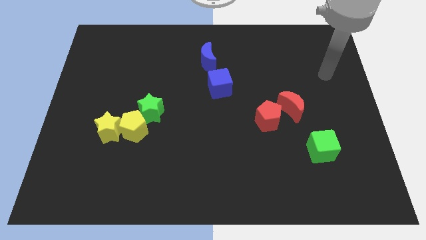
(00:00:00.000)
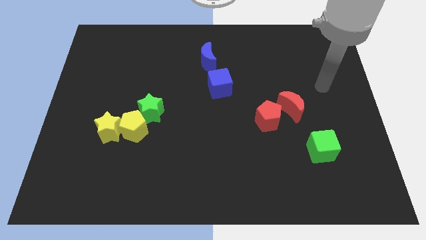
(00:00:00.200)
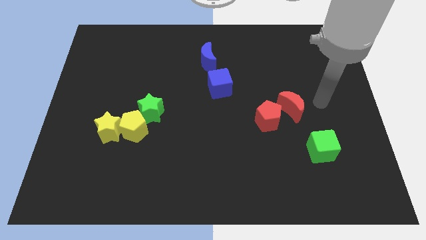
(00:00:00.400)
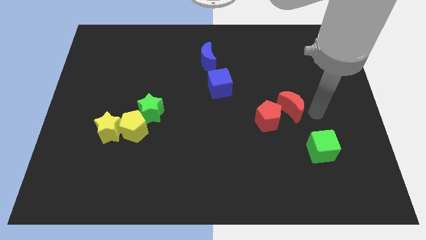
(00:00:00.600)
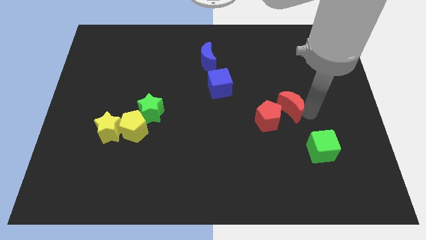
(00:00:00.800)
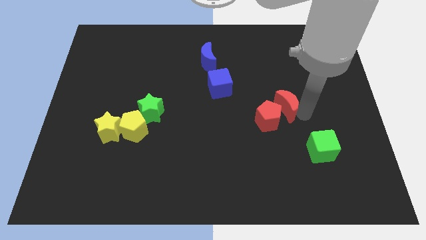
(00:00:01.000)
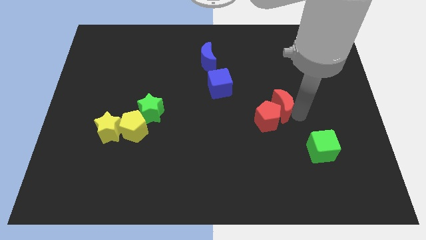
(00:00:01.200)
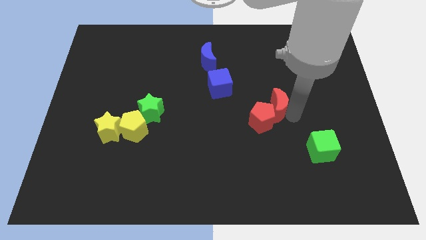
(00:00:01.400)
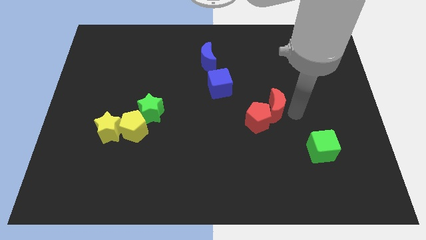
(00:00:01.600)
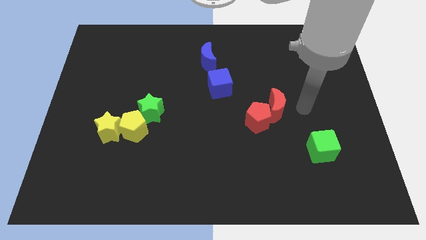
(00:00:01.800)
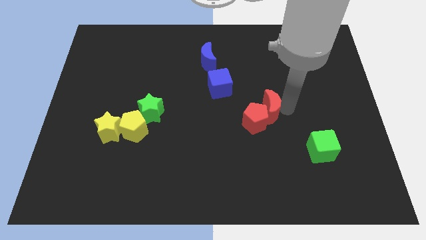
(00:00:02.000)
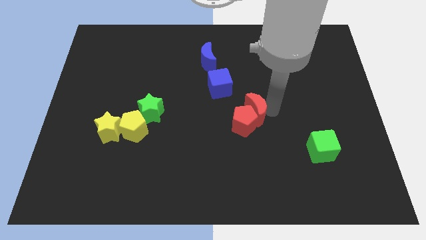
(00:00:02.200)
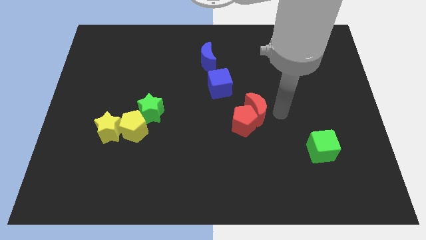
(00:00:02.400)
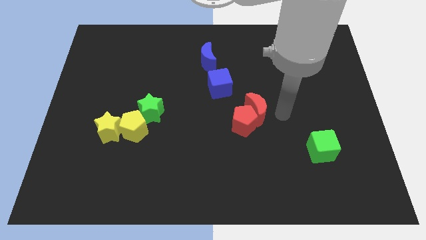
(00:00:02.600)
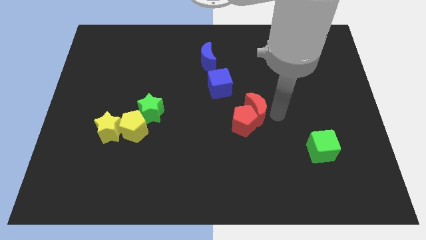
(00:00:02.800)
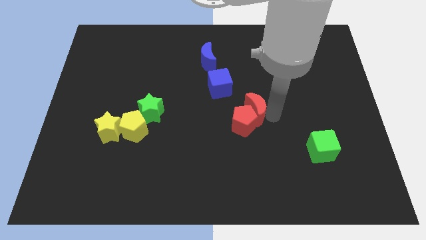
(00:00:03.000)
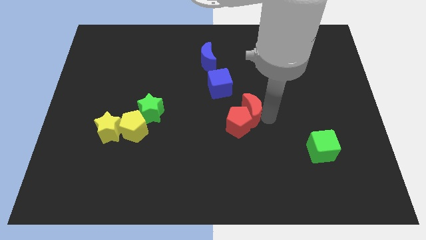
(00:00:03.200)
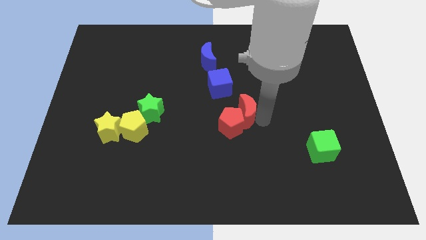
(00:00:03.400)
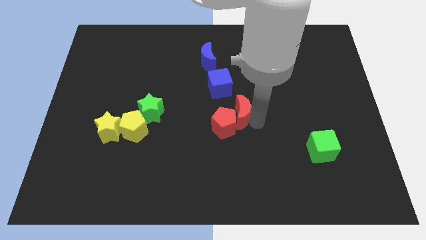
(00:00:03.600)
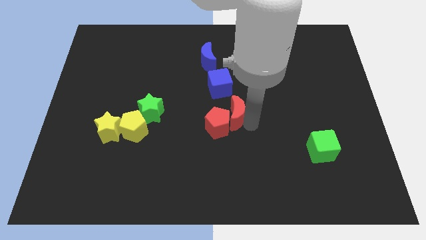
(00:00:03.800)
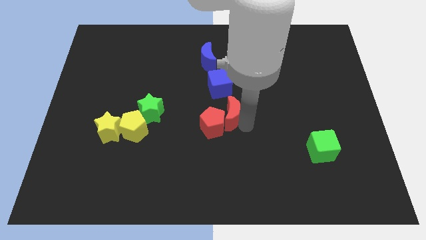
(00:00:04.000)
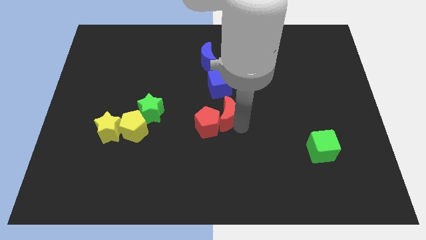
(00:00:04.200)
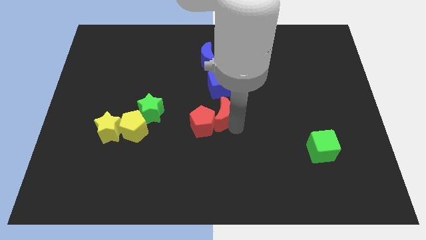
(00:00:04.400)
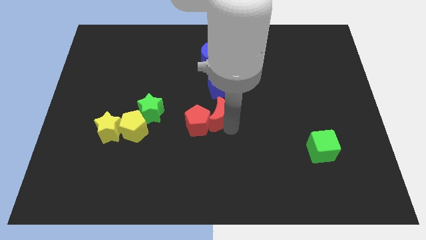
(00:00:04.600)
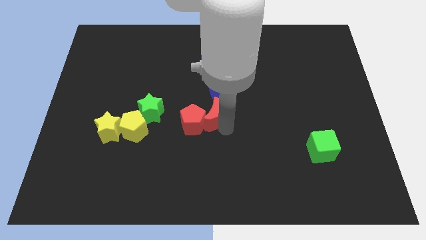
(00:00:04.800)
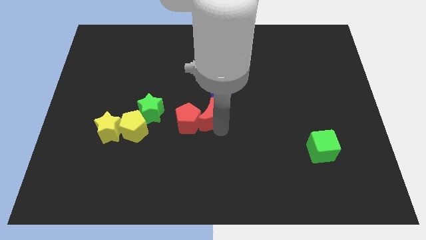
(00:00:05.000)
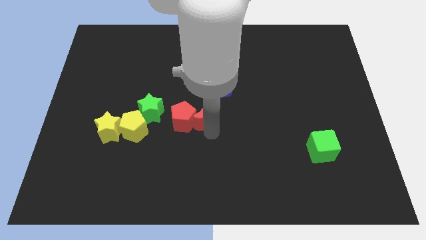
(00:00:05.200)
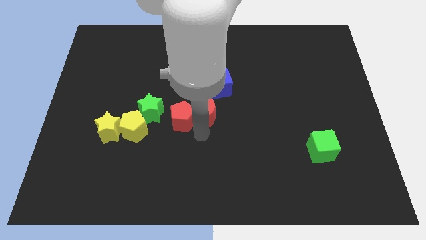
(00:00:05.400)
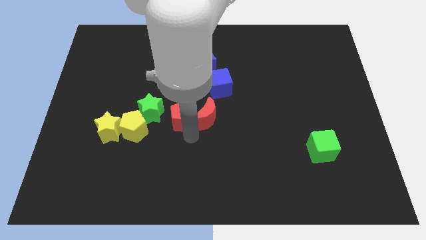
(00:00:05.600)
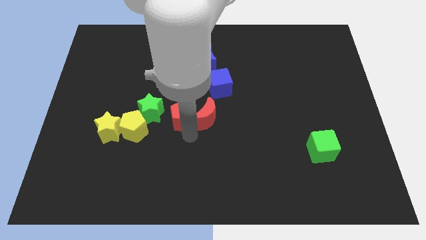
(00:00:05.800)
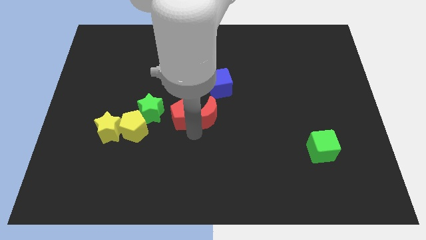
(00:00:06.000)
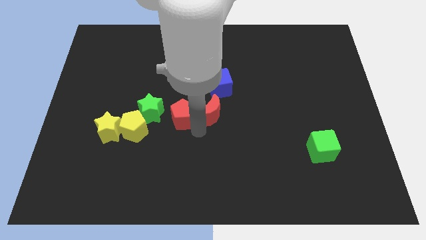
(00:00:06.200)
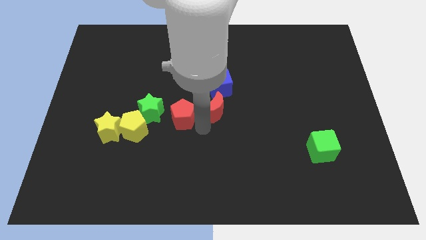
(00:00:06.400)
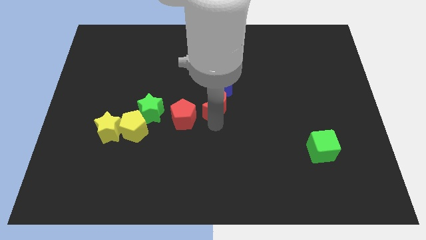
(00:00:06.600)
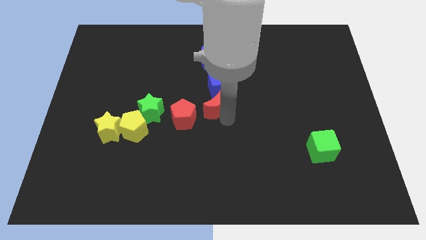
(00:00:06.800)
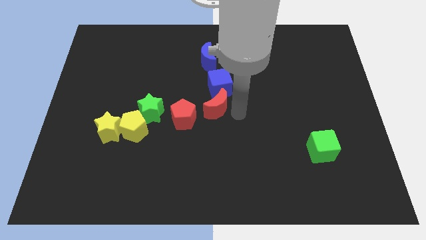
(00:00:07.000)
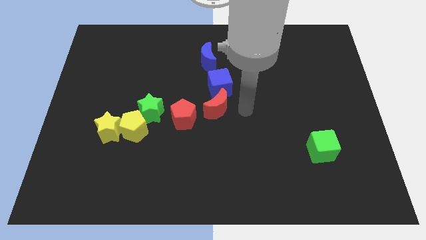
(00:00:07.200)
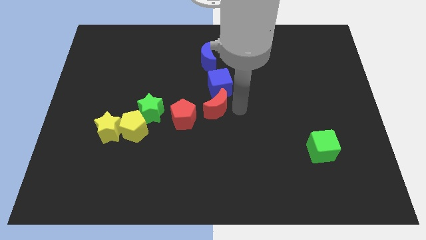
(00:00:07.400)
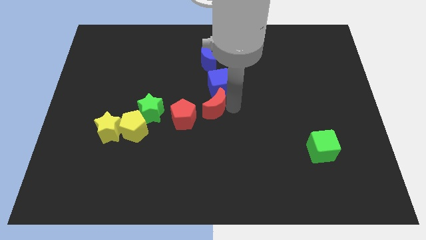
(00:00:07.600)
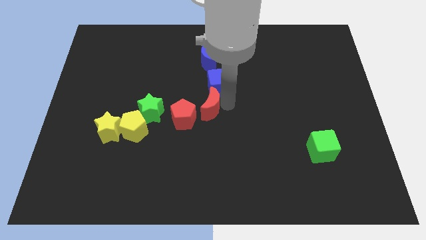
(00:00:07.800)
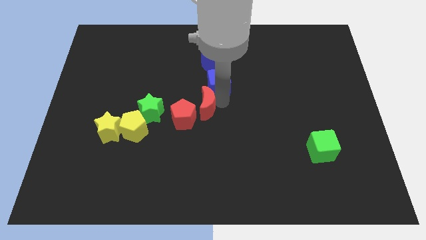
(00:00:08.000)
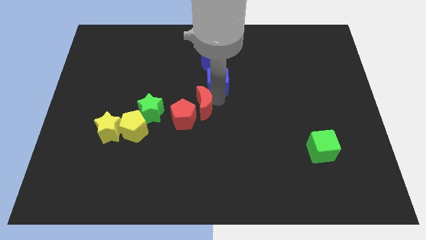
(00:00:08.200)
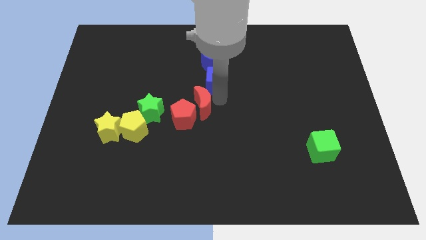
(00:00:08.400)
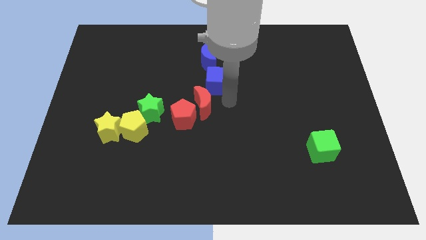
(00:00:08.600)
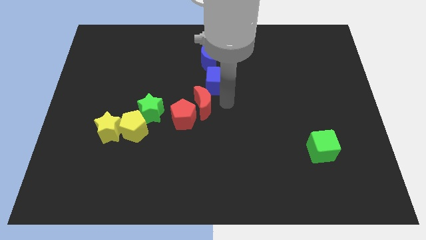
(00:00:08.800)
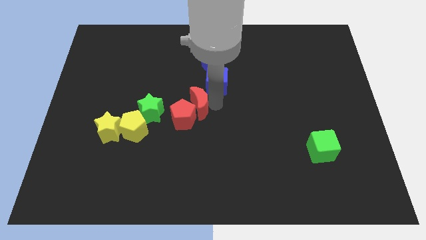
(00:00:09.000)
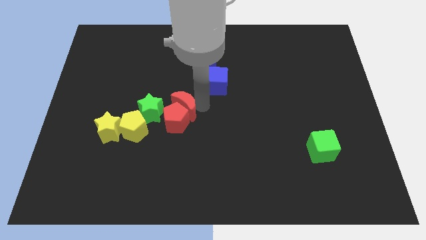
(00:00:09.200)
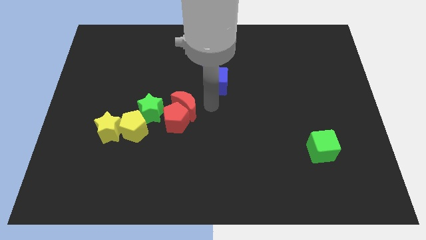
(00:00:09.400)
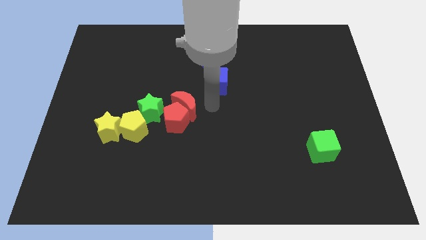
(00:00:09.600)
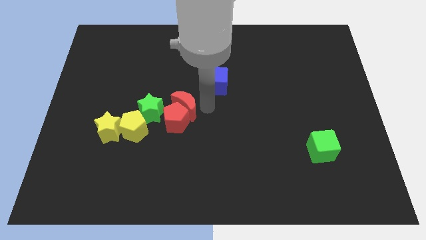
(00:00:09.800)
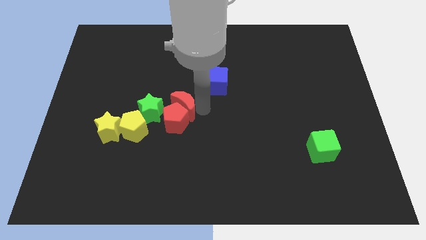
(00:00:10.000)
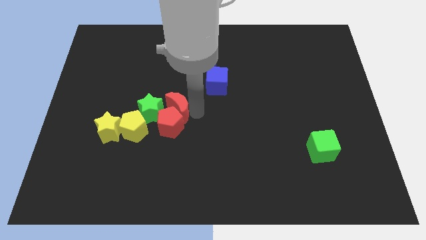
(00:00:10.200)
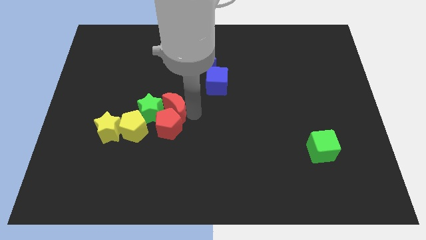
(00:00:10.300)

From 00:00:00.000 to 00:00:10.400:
slide the red moon next to the green star
